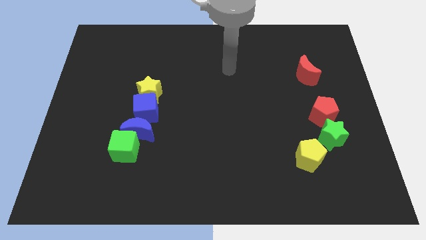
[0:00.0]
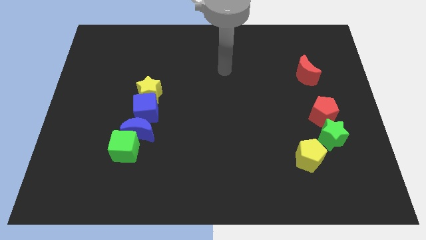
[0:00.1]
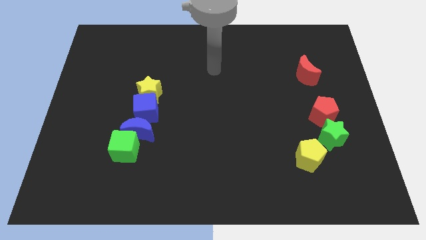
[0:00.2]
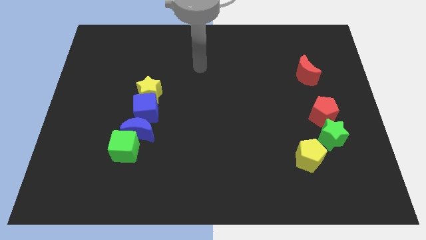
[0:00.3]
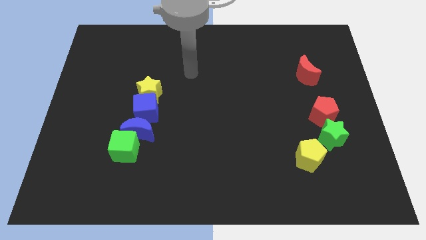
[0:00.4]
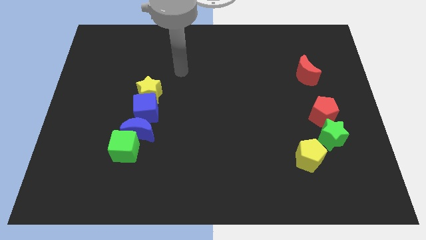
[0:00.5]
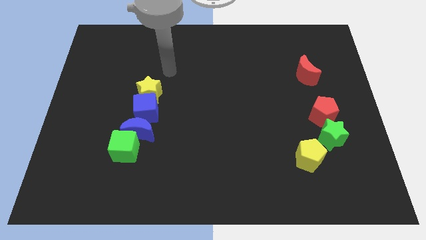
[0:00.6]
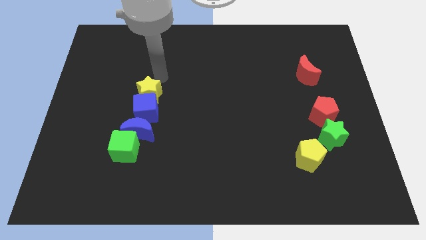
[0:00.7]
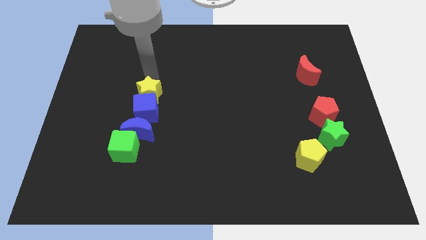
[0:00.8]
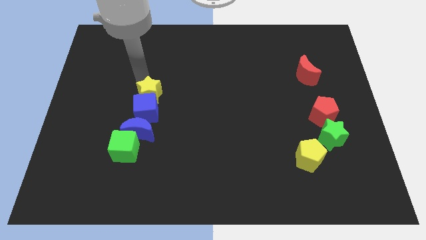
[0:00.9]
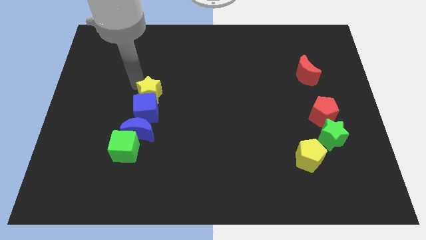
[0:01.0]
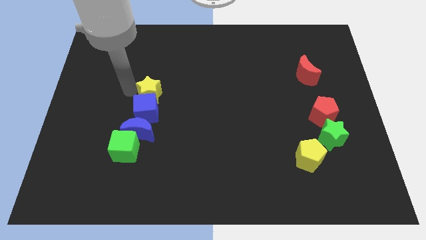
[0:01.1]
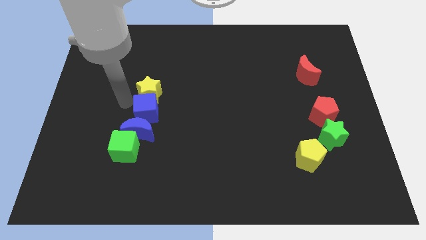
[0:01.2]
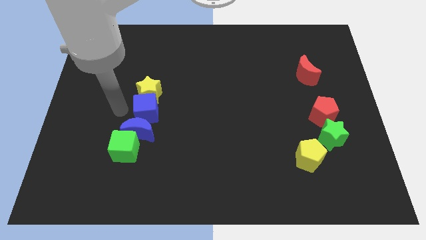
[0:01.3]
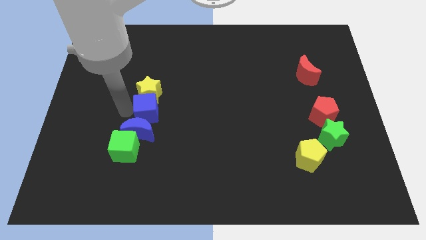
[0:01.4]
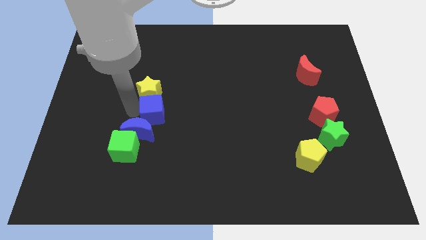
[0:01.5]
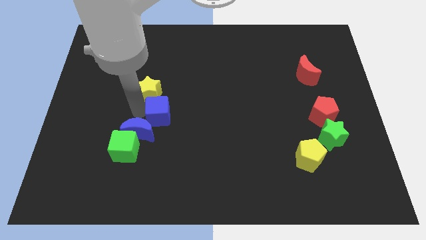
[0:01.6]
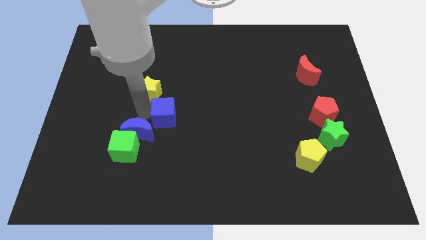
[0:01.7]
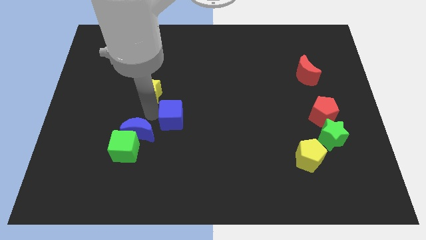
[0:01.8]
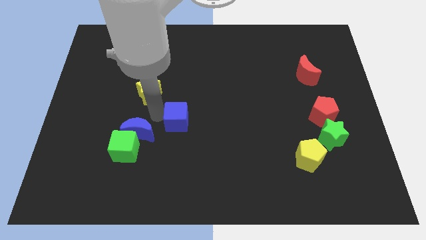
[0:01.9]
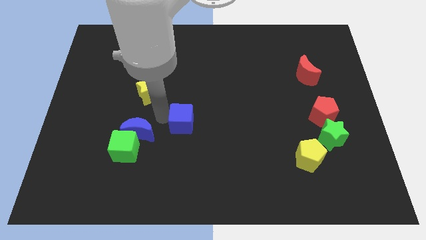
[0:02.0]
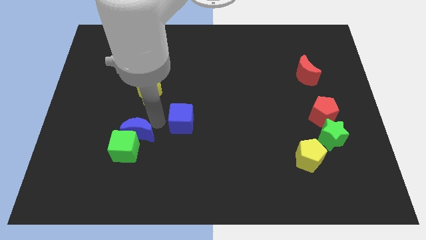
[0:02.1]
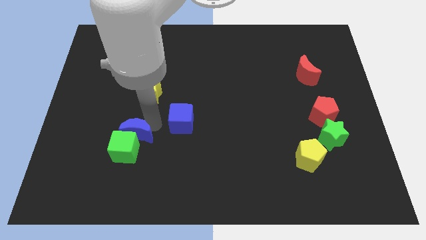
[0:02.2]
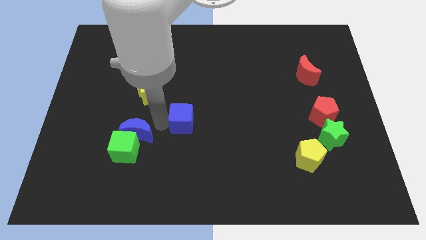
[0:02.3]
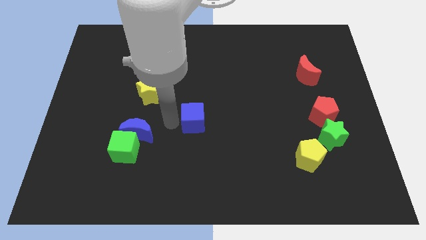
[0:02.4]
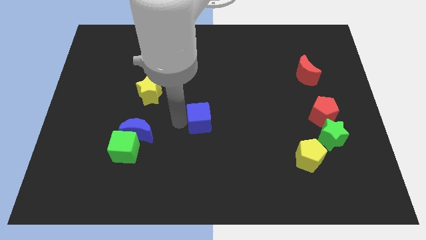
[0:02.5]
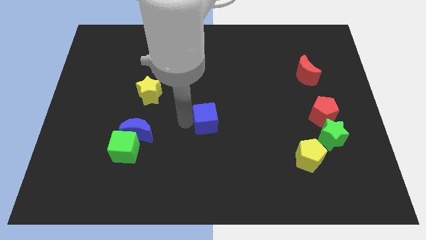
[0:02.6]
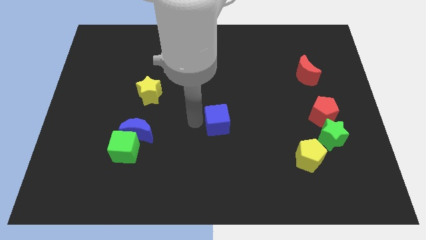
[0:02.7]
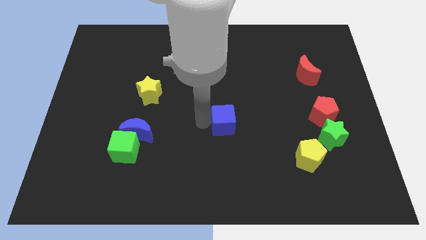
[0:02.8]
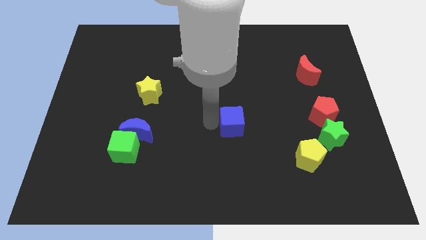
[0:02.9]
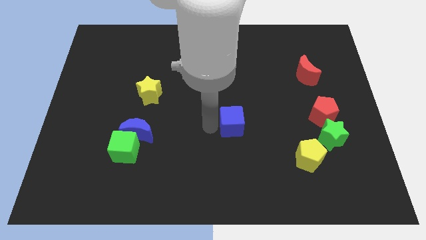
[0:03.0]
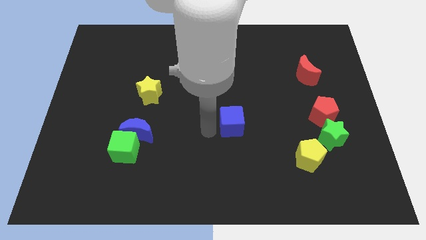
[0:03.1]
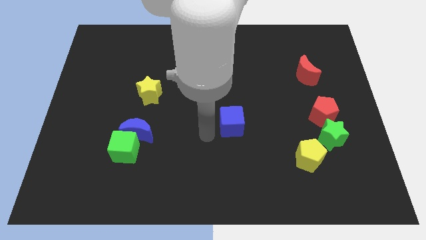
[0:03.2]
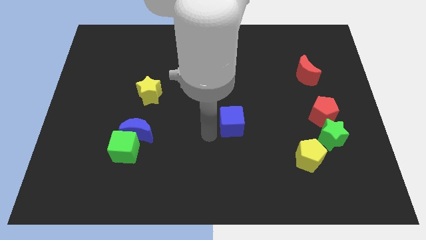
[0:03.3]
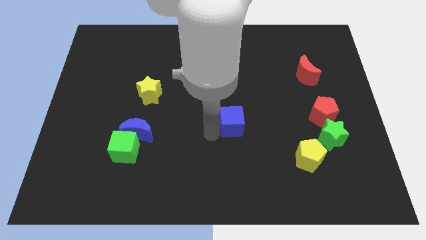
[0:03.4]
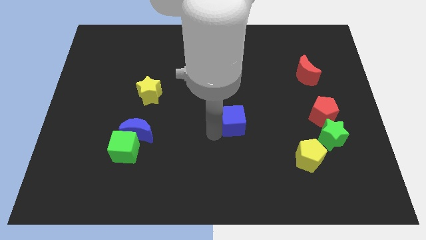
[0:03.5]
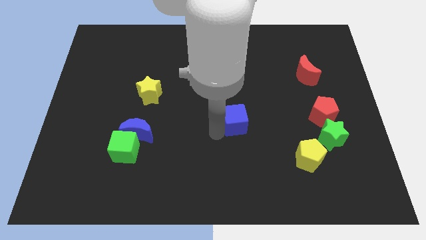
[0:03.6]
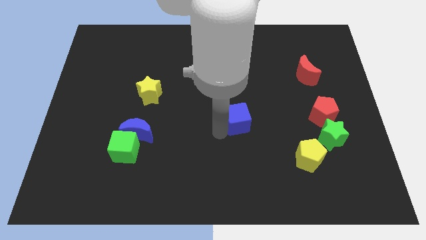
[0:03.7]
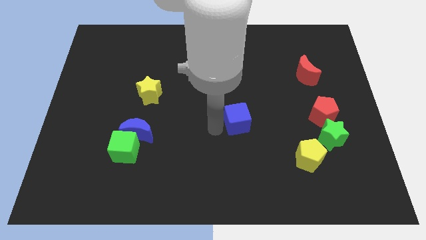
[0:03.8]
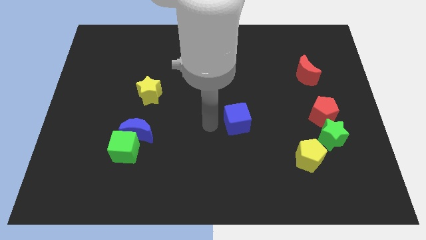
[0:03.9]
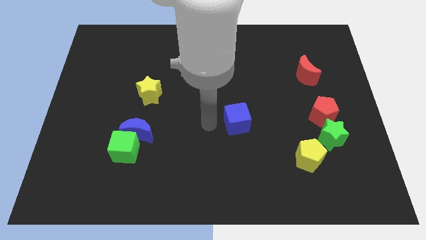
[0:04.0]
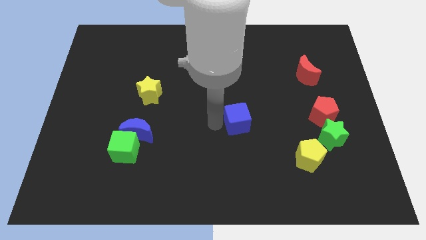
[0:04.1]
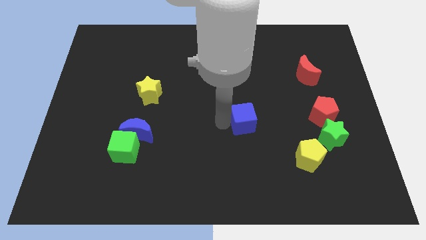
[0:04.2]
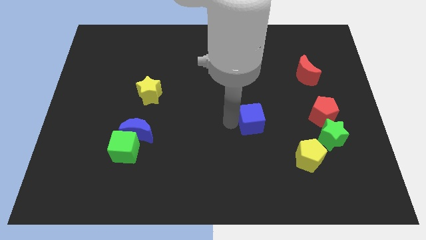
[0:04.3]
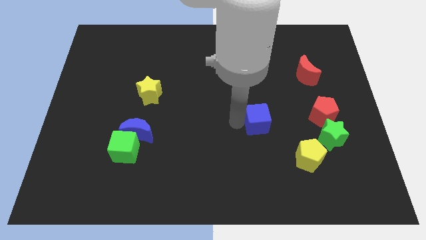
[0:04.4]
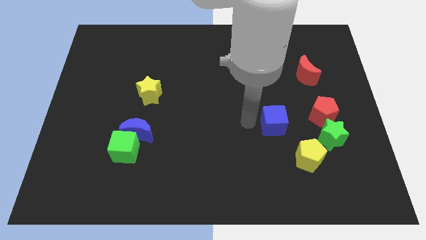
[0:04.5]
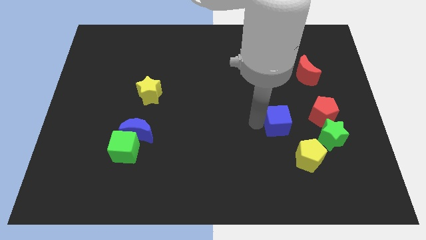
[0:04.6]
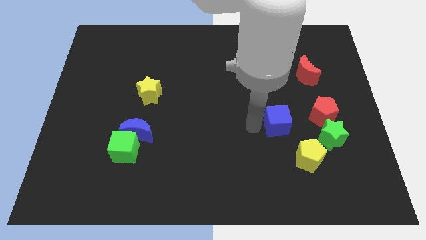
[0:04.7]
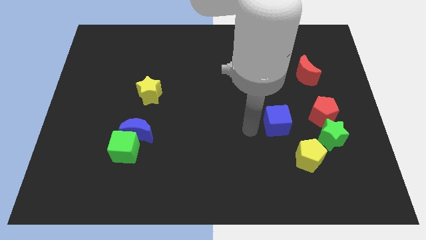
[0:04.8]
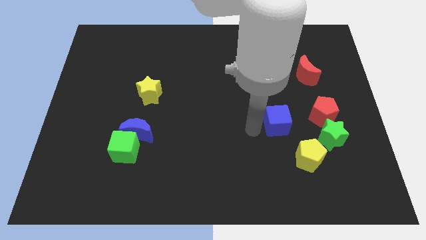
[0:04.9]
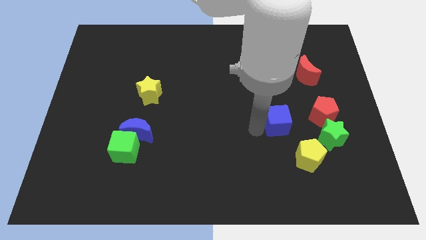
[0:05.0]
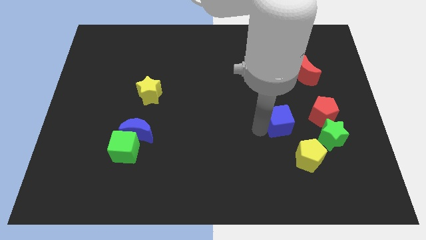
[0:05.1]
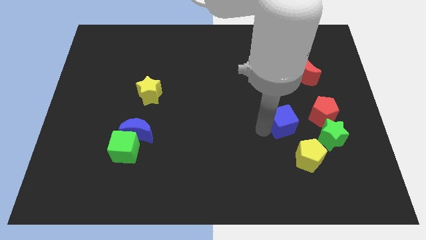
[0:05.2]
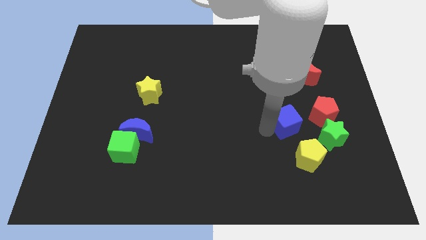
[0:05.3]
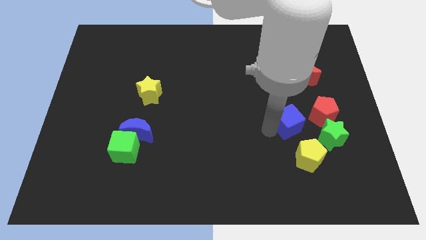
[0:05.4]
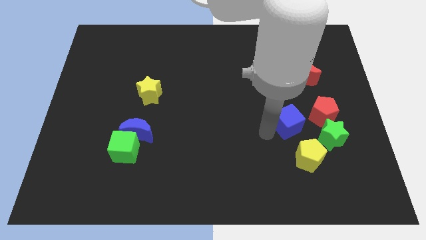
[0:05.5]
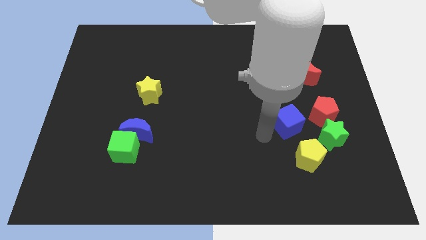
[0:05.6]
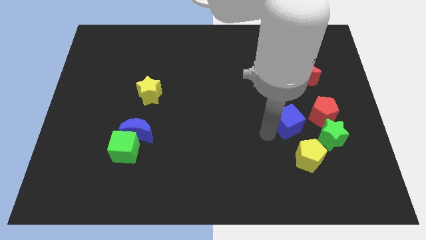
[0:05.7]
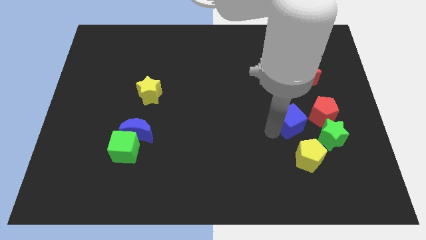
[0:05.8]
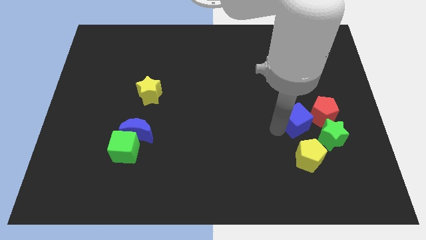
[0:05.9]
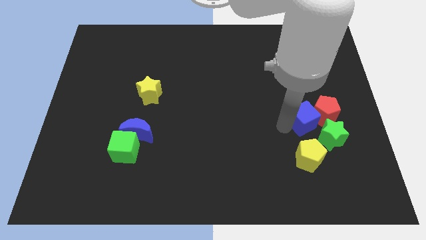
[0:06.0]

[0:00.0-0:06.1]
slide the blue cube close to the red pentagon
